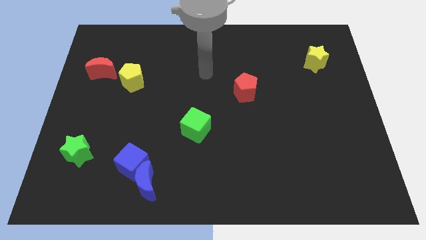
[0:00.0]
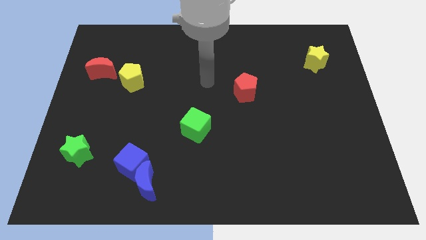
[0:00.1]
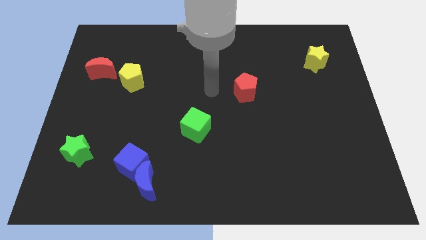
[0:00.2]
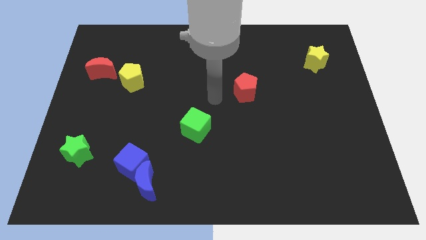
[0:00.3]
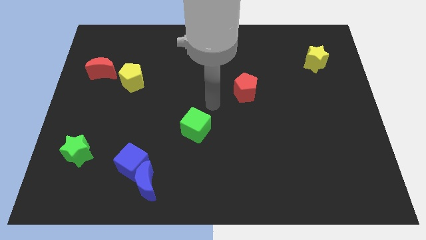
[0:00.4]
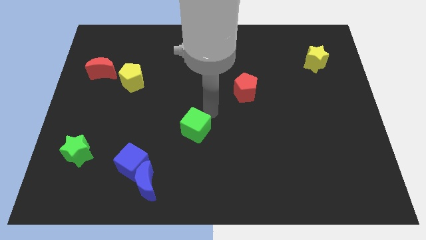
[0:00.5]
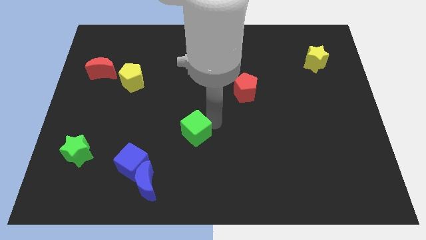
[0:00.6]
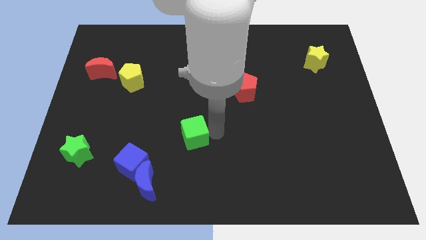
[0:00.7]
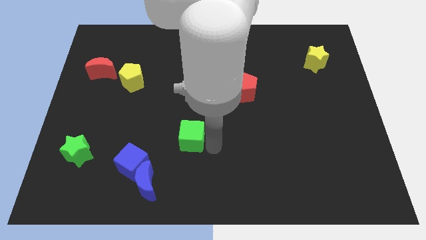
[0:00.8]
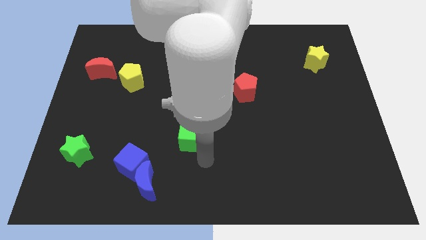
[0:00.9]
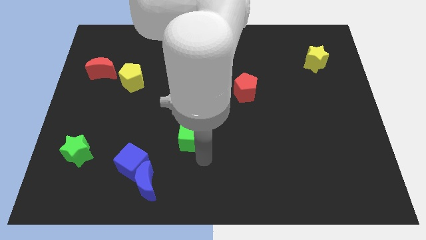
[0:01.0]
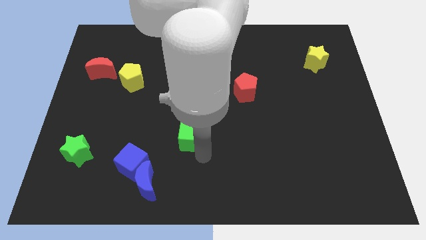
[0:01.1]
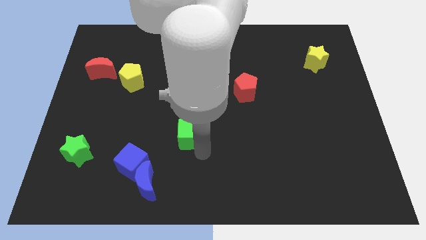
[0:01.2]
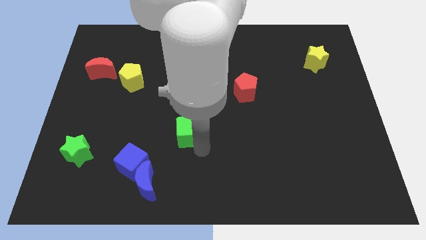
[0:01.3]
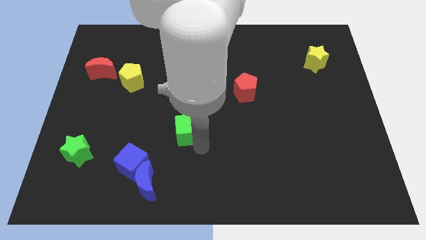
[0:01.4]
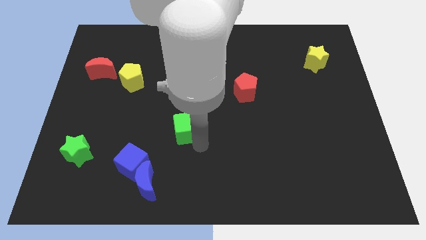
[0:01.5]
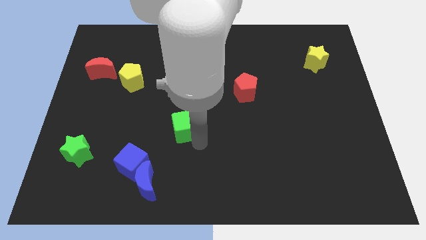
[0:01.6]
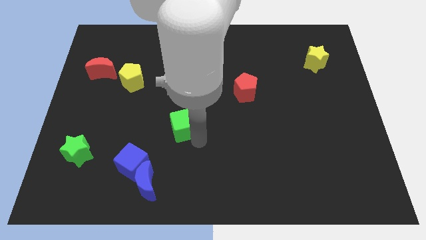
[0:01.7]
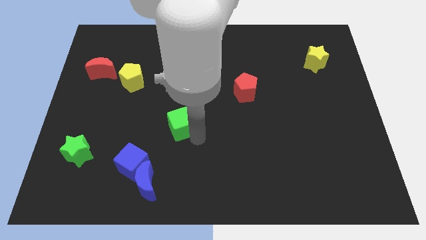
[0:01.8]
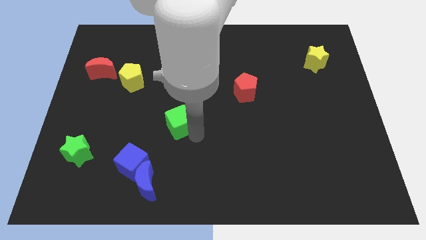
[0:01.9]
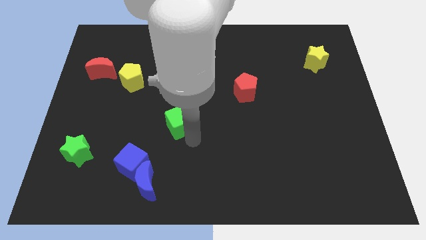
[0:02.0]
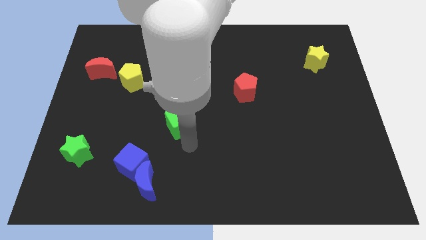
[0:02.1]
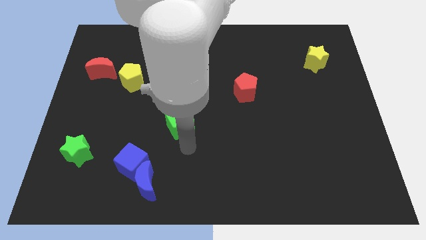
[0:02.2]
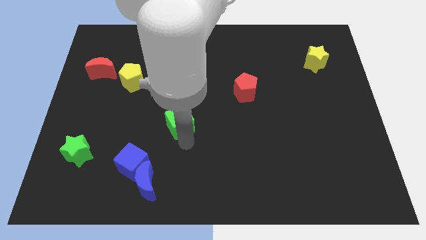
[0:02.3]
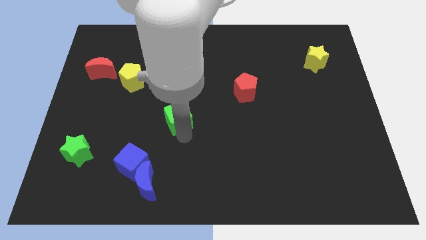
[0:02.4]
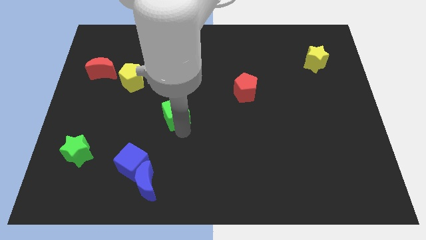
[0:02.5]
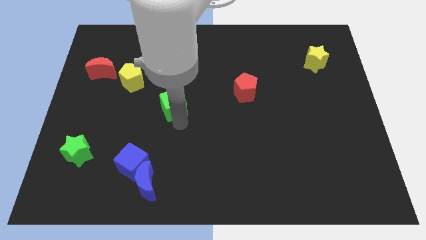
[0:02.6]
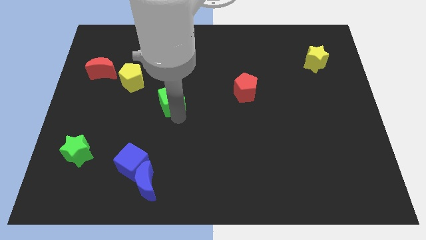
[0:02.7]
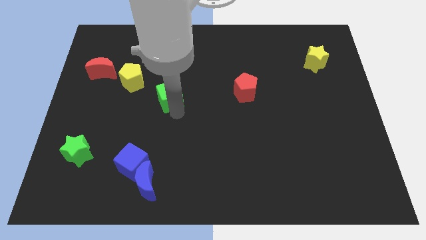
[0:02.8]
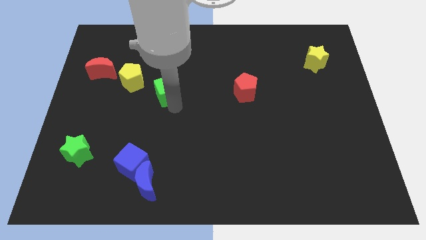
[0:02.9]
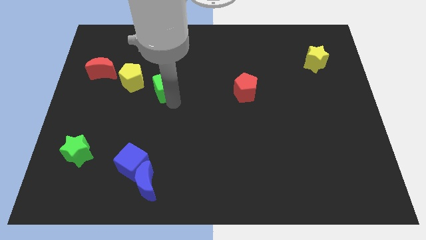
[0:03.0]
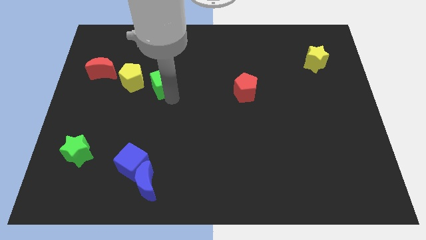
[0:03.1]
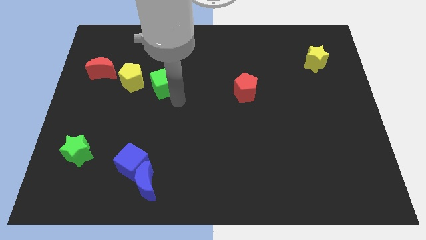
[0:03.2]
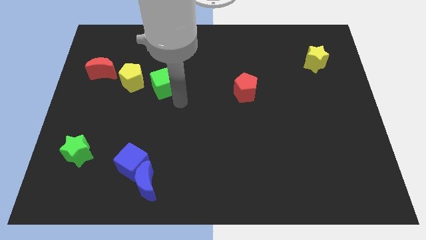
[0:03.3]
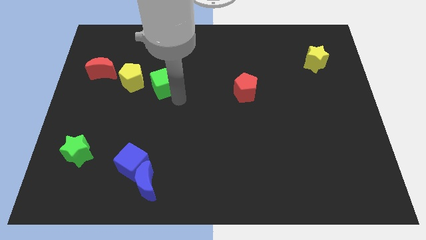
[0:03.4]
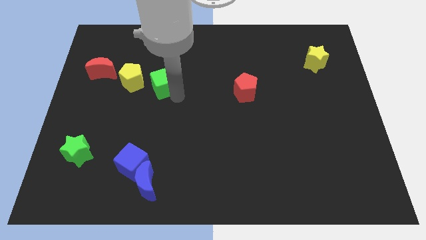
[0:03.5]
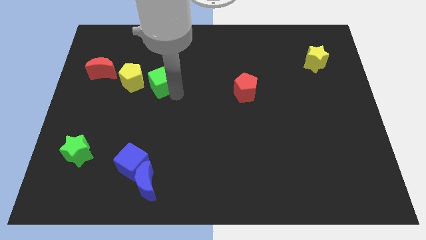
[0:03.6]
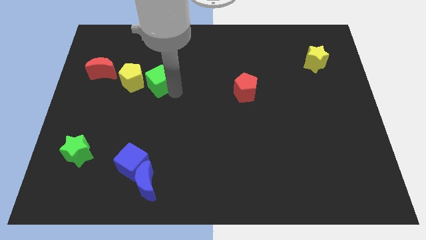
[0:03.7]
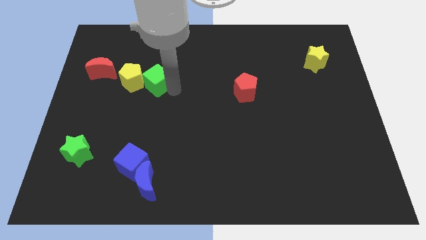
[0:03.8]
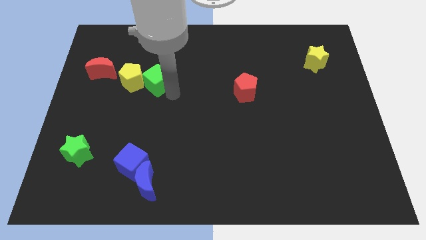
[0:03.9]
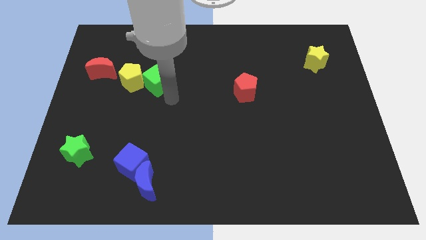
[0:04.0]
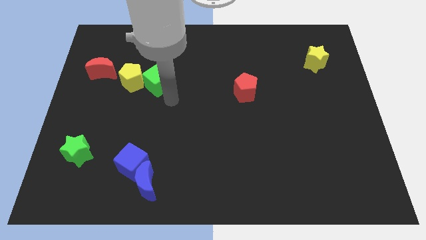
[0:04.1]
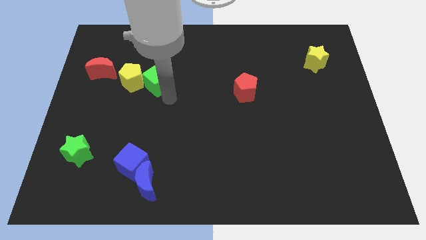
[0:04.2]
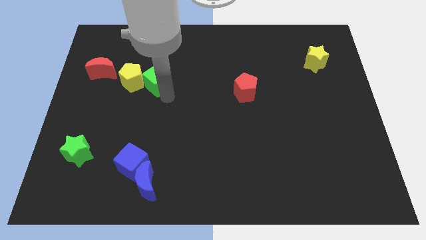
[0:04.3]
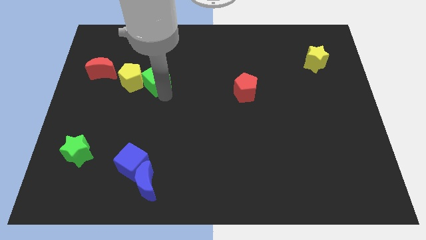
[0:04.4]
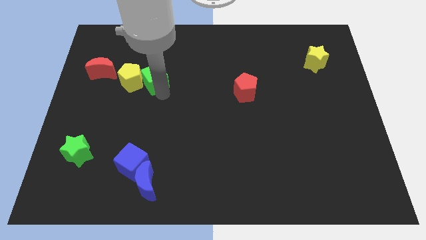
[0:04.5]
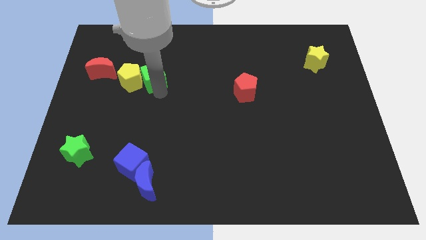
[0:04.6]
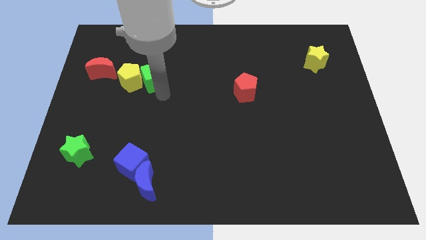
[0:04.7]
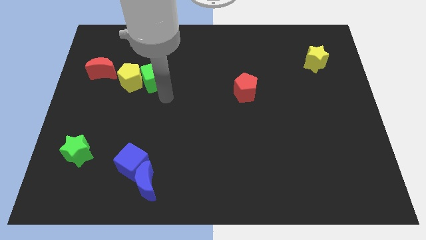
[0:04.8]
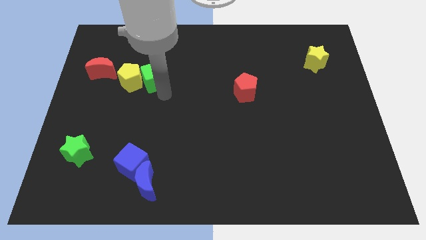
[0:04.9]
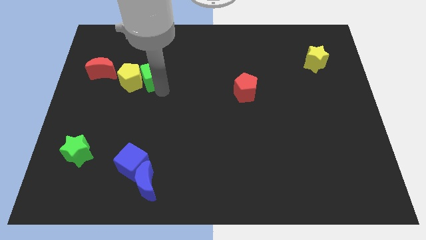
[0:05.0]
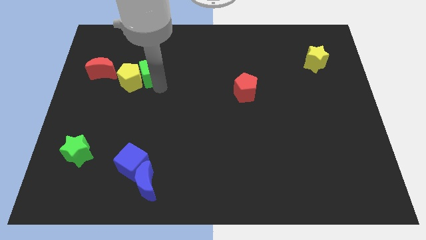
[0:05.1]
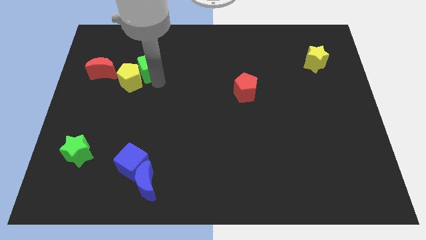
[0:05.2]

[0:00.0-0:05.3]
slide the green cube up and then left

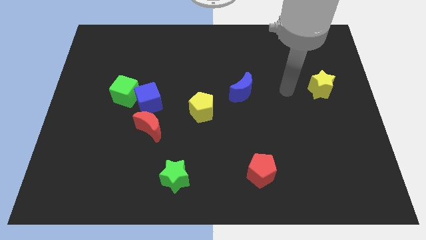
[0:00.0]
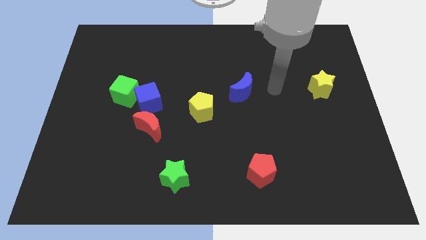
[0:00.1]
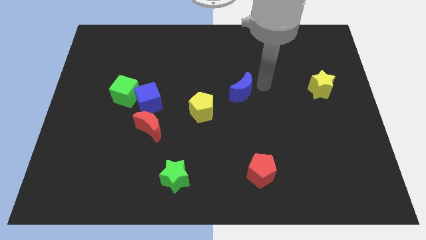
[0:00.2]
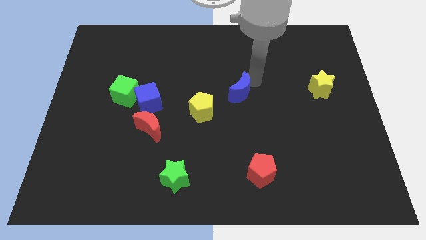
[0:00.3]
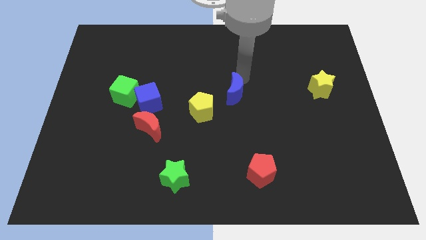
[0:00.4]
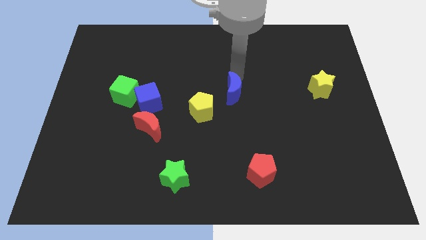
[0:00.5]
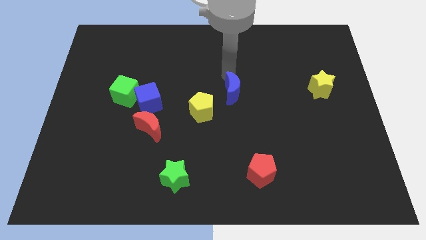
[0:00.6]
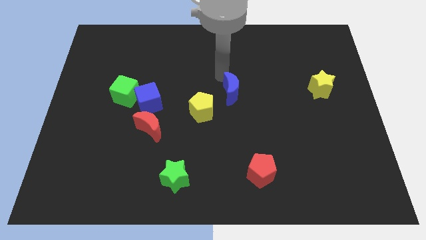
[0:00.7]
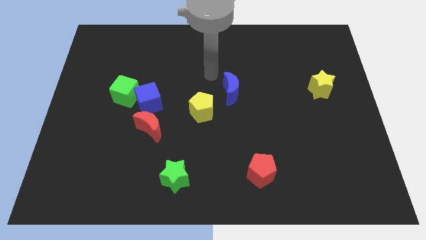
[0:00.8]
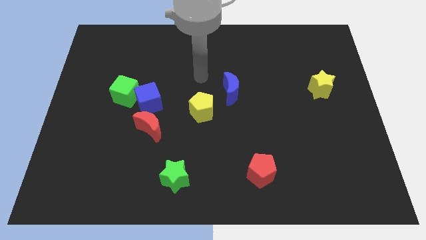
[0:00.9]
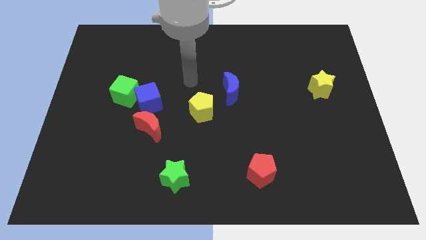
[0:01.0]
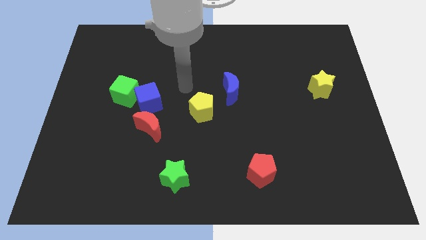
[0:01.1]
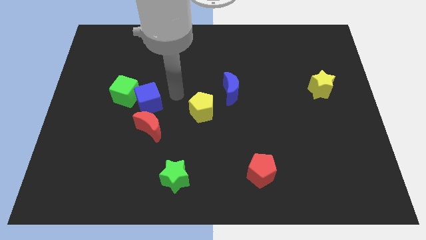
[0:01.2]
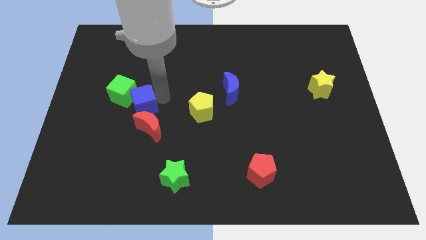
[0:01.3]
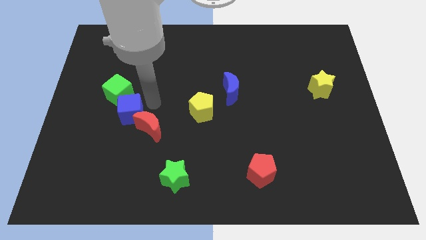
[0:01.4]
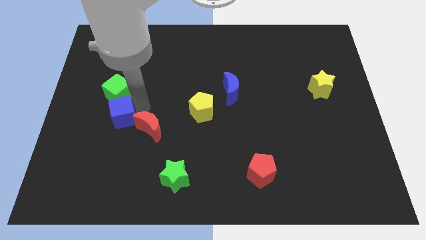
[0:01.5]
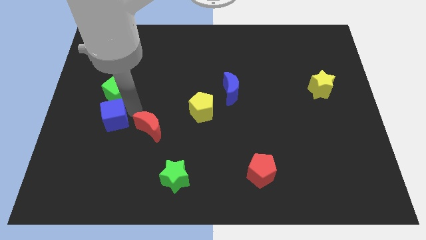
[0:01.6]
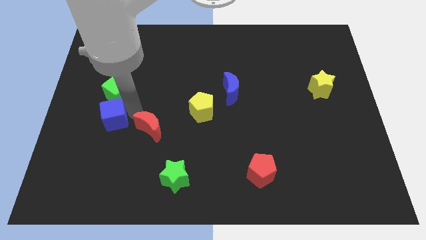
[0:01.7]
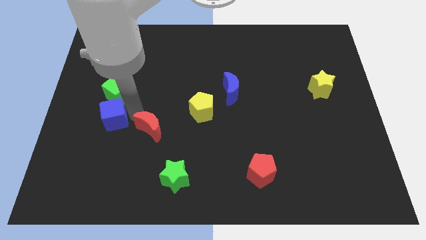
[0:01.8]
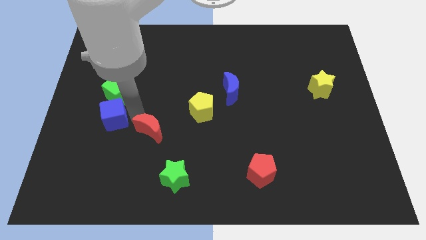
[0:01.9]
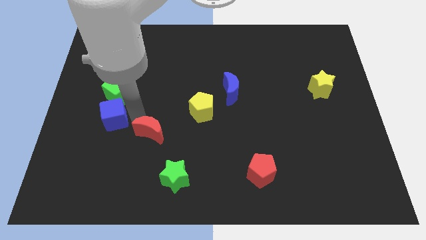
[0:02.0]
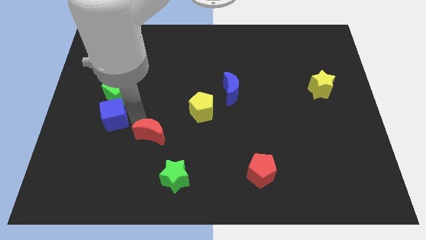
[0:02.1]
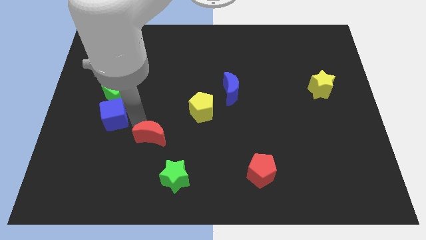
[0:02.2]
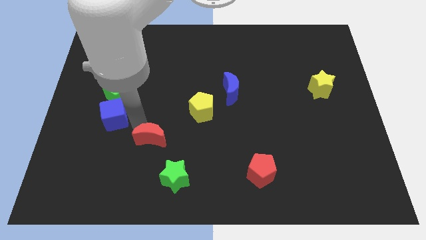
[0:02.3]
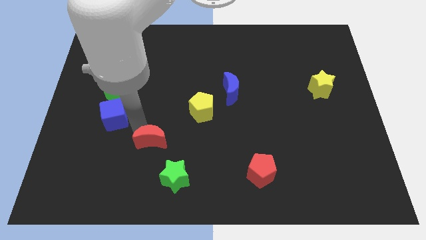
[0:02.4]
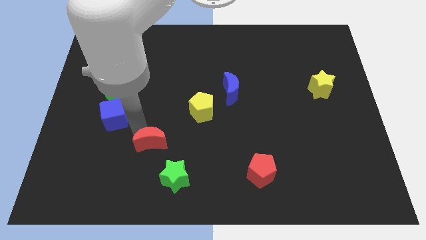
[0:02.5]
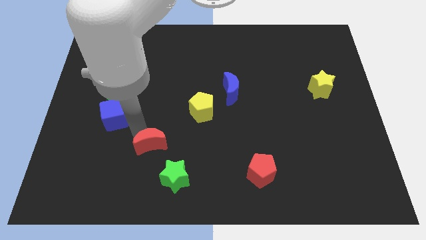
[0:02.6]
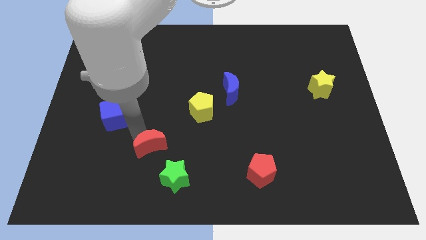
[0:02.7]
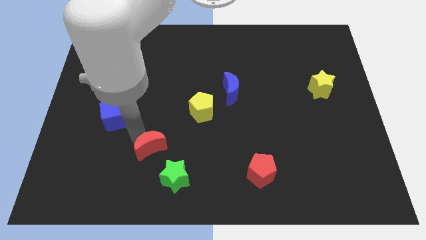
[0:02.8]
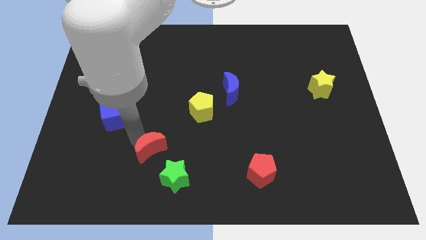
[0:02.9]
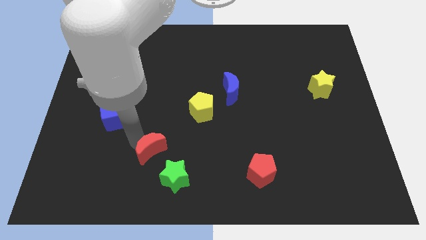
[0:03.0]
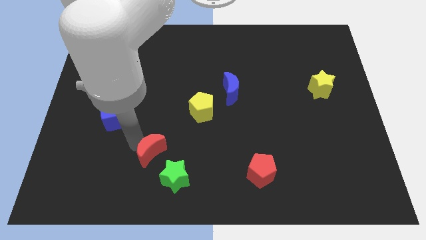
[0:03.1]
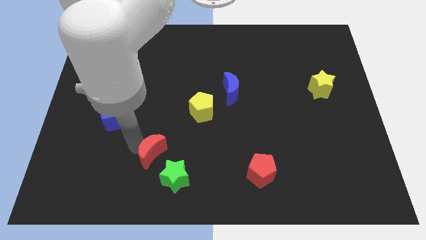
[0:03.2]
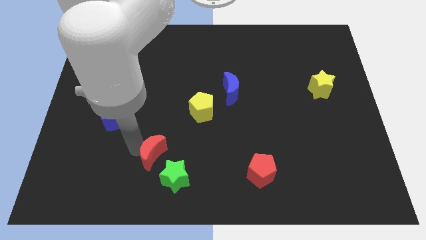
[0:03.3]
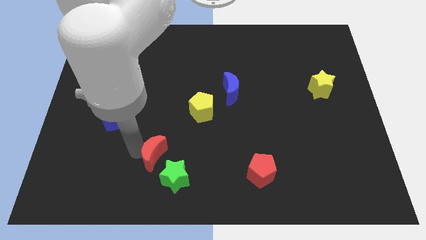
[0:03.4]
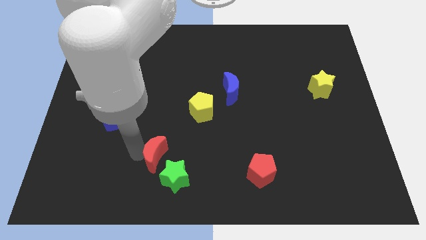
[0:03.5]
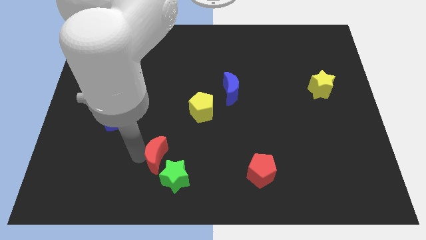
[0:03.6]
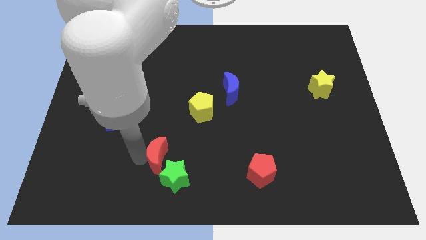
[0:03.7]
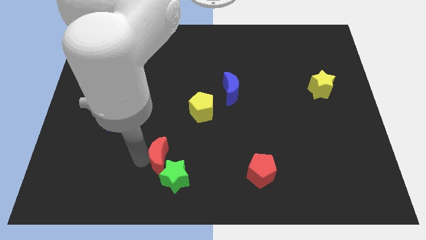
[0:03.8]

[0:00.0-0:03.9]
move the red moon a little diagonally down and right
